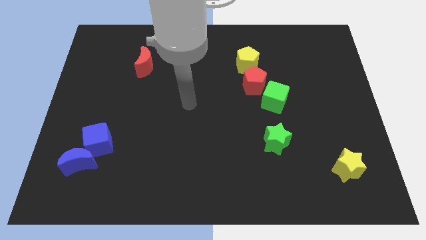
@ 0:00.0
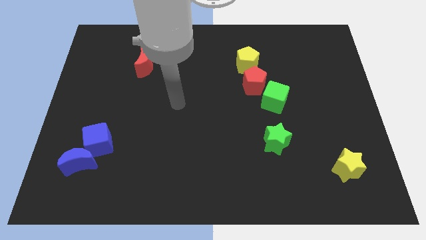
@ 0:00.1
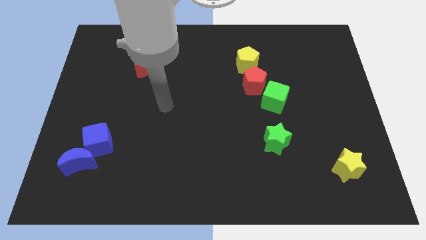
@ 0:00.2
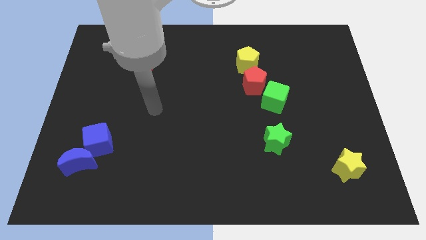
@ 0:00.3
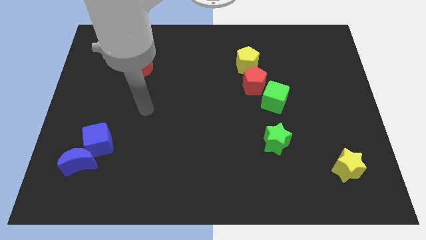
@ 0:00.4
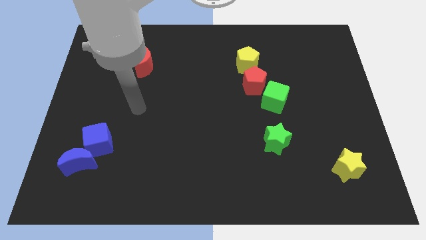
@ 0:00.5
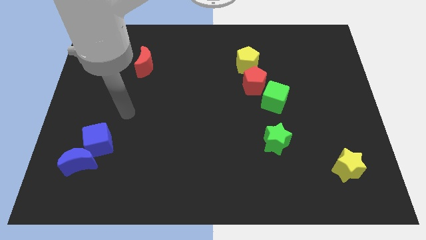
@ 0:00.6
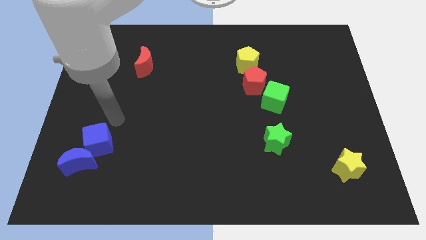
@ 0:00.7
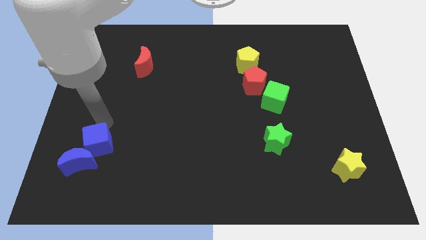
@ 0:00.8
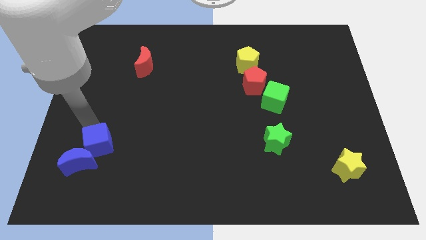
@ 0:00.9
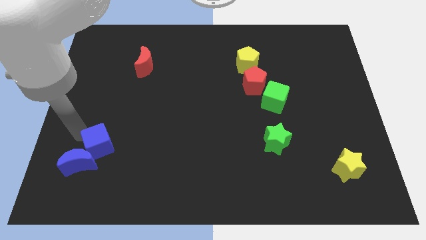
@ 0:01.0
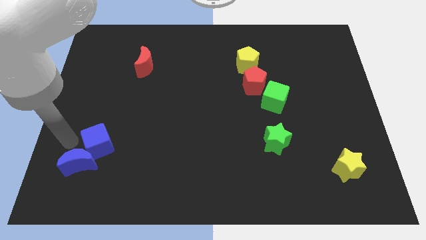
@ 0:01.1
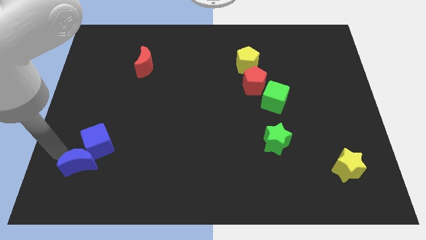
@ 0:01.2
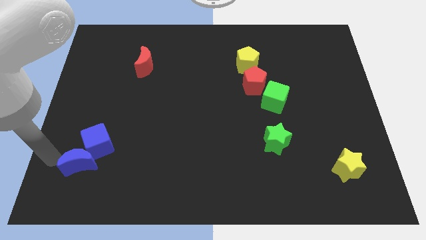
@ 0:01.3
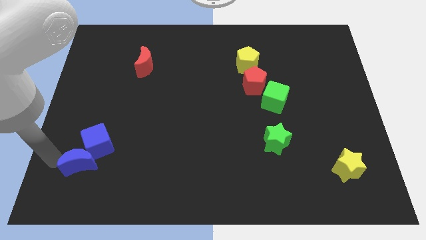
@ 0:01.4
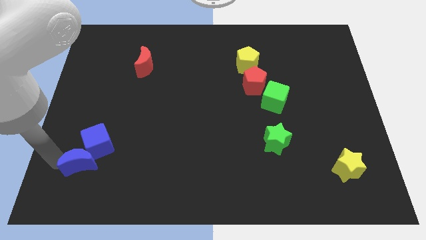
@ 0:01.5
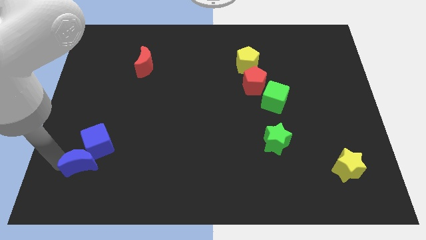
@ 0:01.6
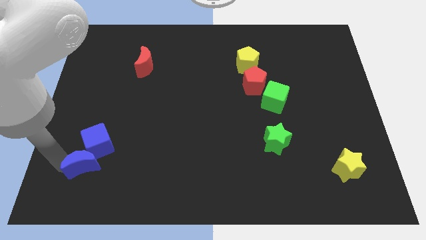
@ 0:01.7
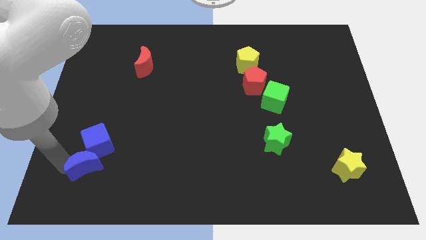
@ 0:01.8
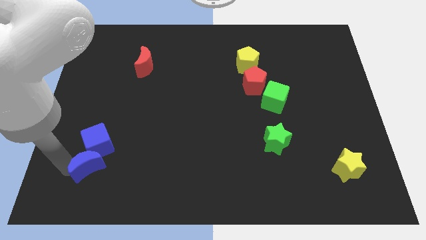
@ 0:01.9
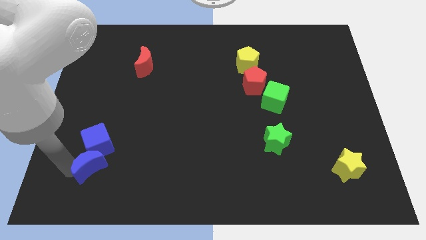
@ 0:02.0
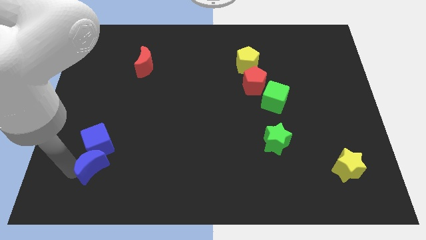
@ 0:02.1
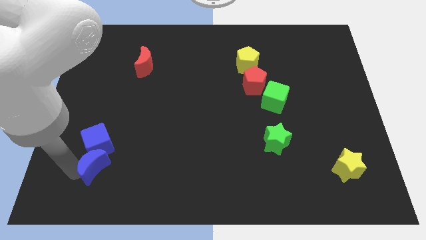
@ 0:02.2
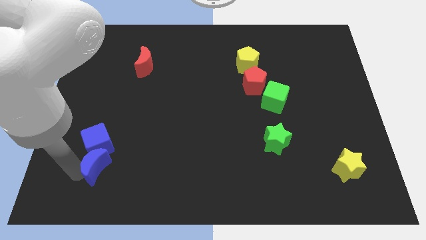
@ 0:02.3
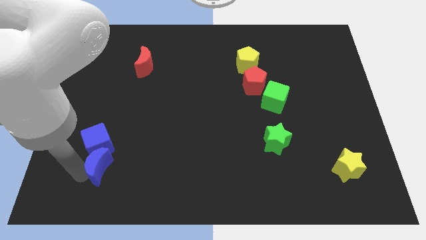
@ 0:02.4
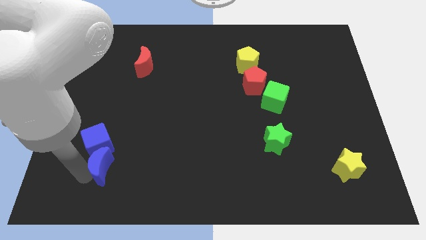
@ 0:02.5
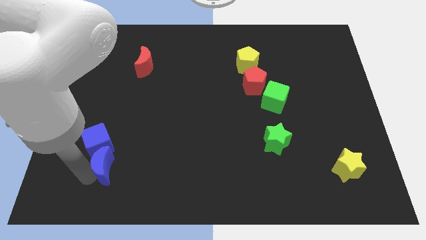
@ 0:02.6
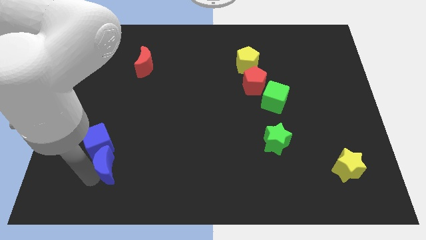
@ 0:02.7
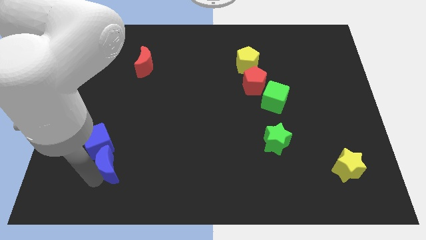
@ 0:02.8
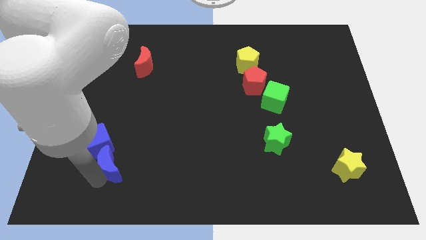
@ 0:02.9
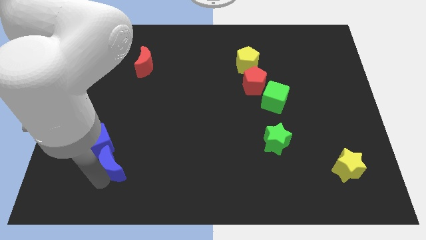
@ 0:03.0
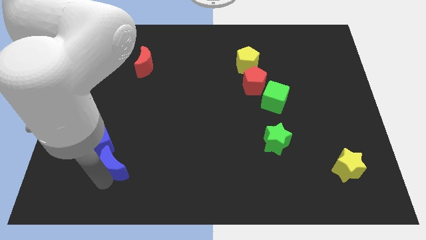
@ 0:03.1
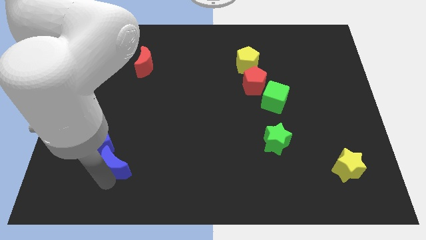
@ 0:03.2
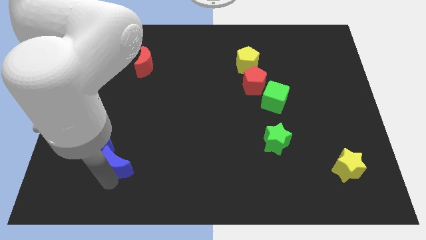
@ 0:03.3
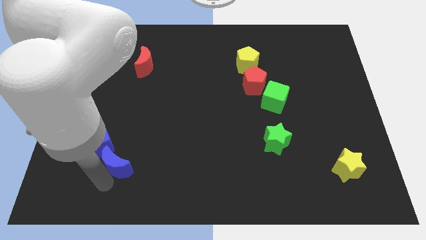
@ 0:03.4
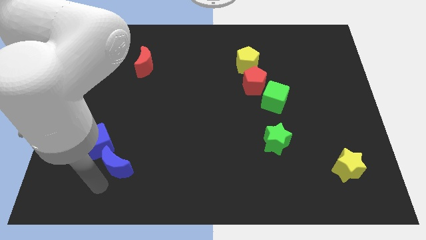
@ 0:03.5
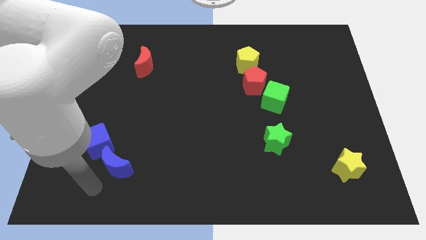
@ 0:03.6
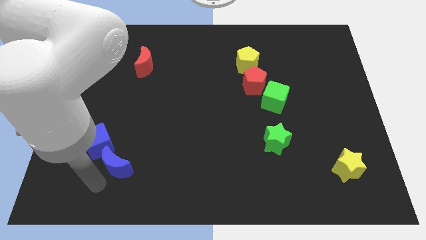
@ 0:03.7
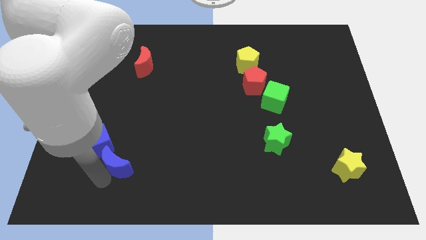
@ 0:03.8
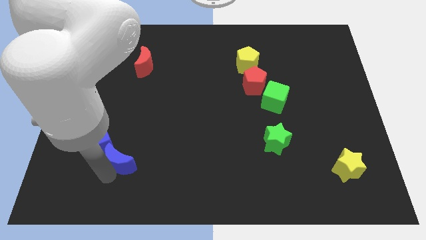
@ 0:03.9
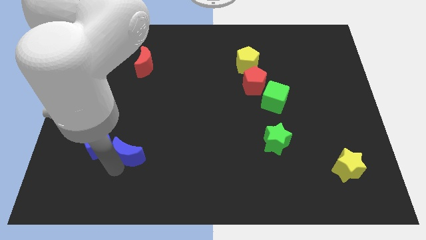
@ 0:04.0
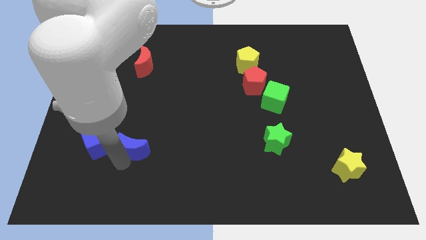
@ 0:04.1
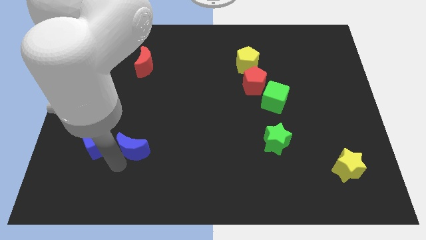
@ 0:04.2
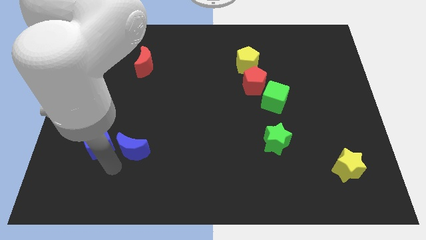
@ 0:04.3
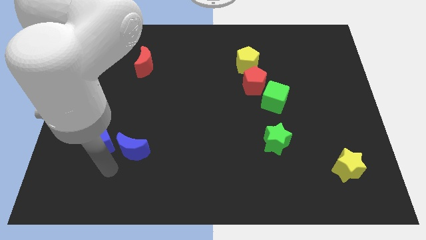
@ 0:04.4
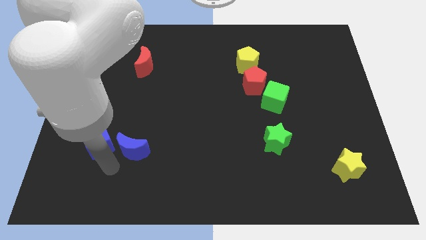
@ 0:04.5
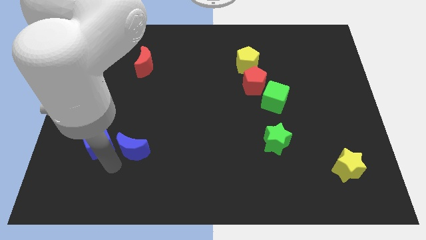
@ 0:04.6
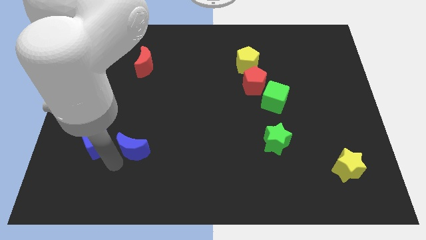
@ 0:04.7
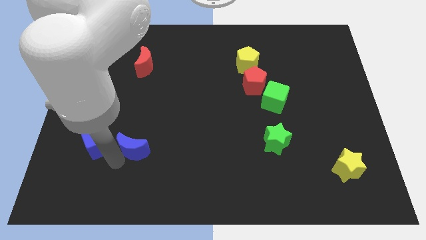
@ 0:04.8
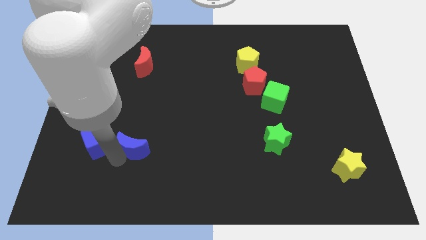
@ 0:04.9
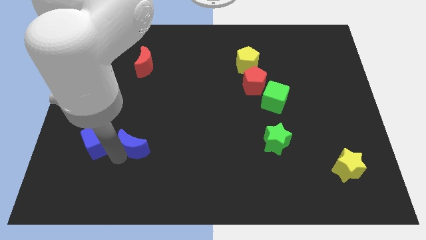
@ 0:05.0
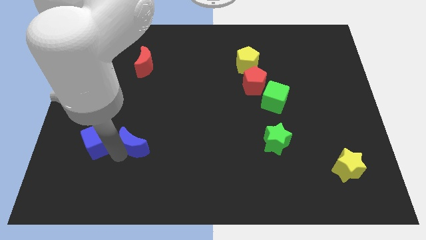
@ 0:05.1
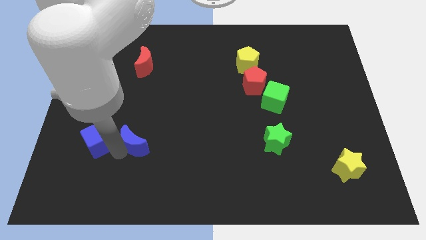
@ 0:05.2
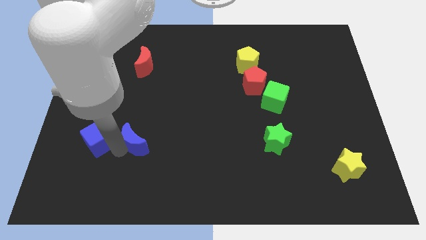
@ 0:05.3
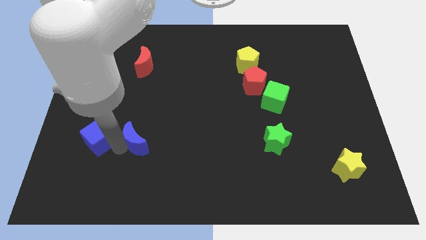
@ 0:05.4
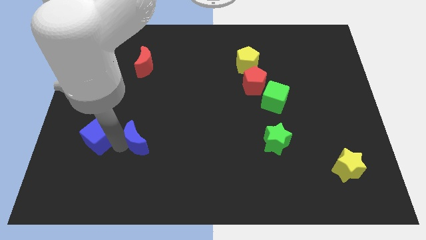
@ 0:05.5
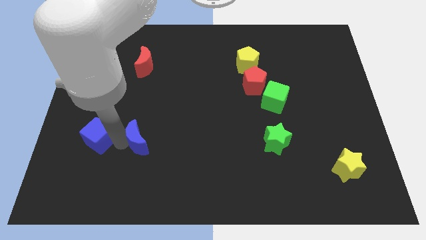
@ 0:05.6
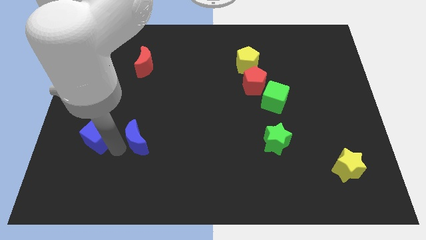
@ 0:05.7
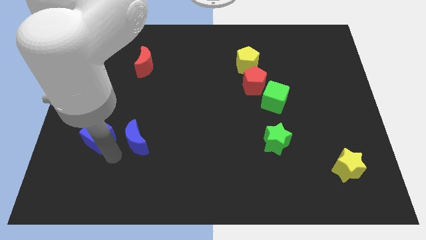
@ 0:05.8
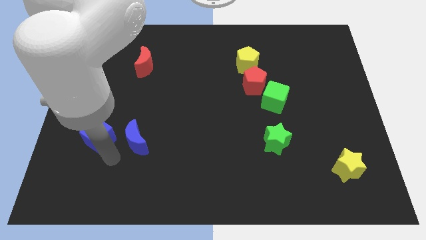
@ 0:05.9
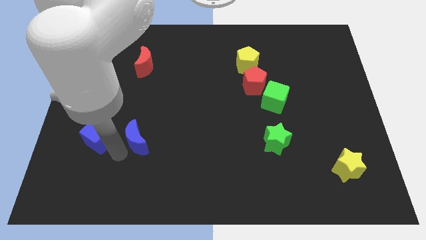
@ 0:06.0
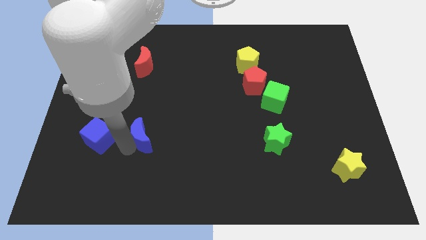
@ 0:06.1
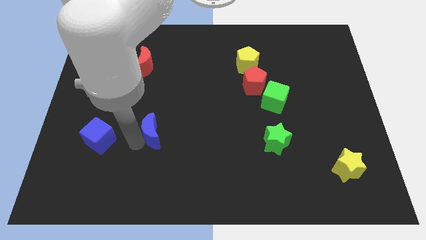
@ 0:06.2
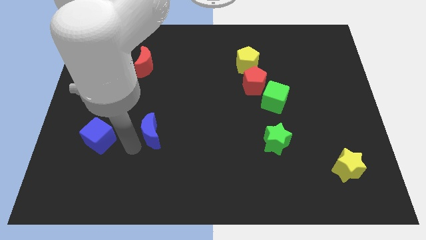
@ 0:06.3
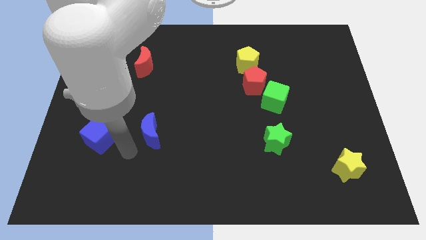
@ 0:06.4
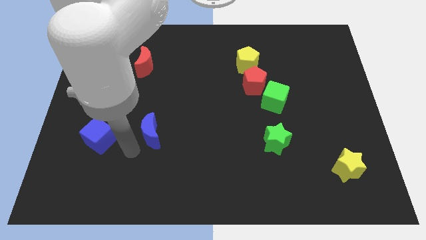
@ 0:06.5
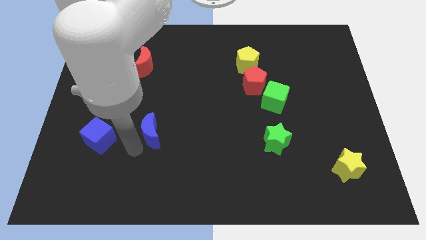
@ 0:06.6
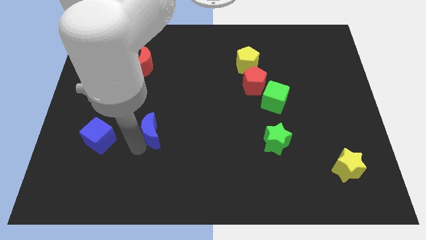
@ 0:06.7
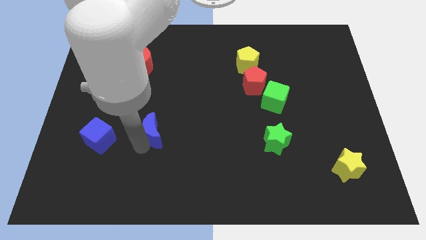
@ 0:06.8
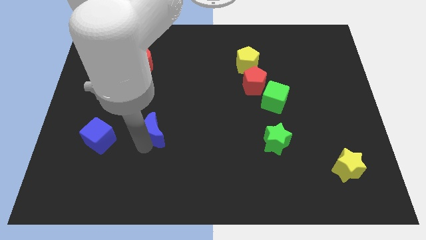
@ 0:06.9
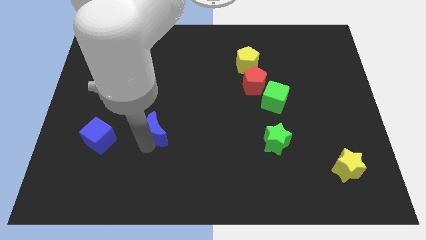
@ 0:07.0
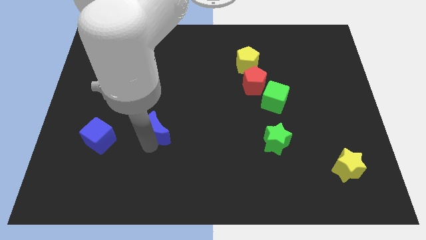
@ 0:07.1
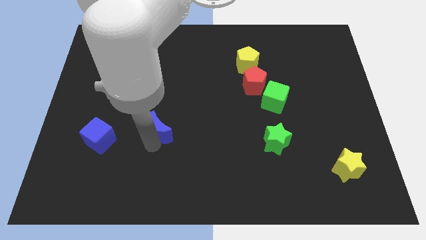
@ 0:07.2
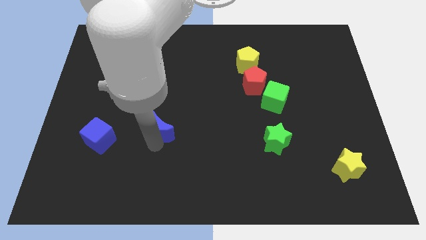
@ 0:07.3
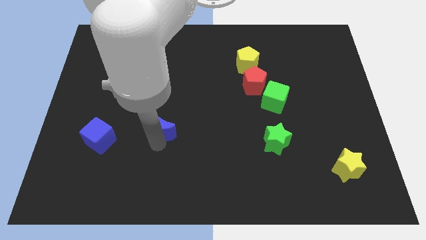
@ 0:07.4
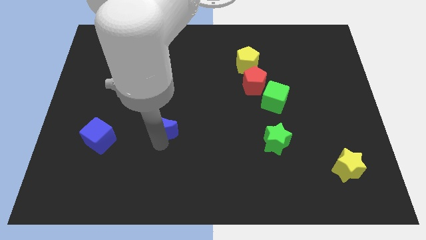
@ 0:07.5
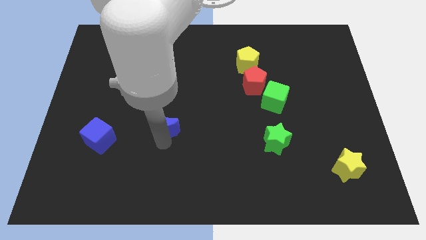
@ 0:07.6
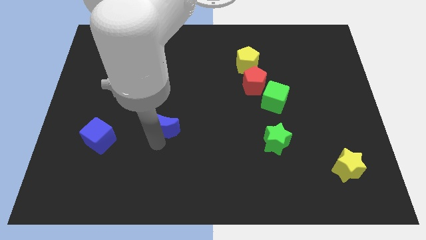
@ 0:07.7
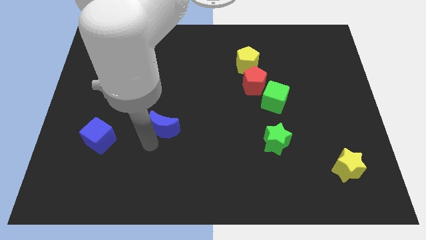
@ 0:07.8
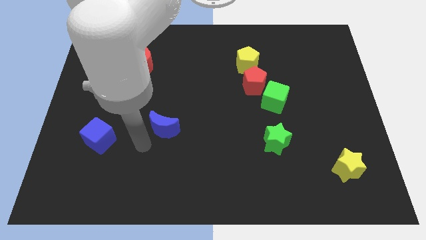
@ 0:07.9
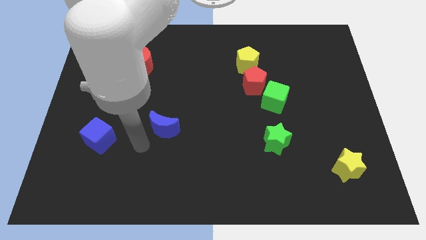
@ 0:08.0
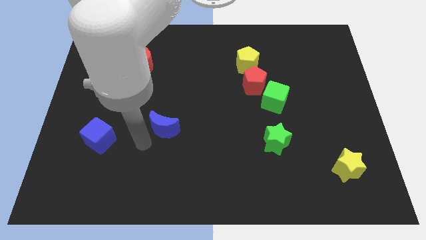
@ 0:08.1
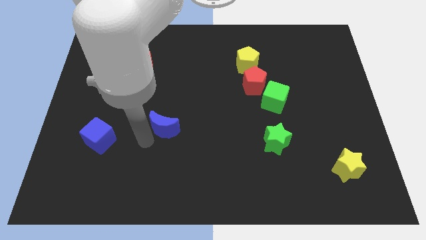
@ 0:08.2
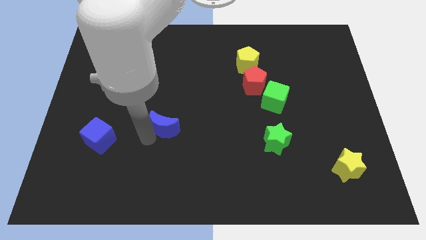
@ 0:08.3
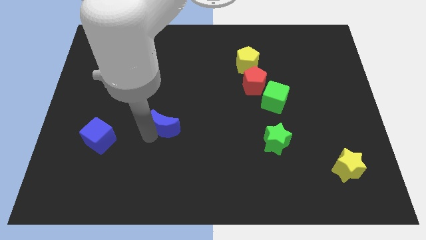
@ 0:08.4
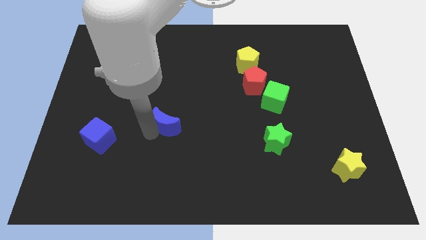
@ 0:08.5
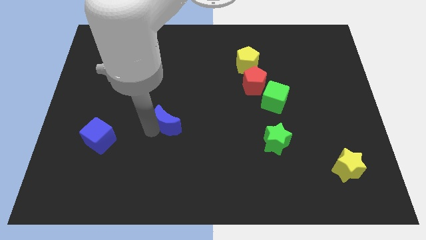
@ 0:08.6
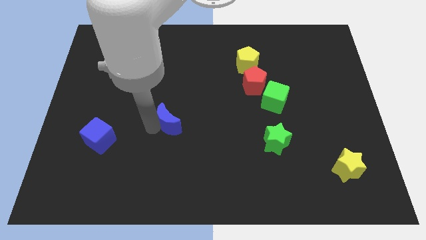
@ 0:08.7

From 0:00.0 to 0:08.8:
move the blue moon to the center
